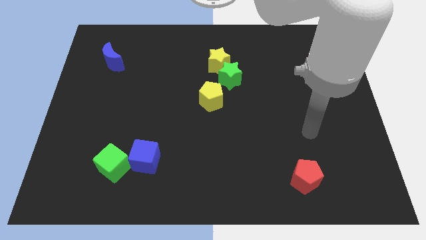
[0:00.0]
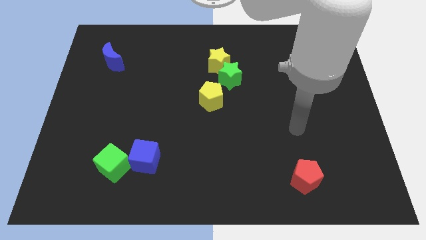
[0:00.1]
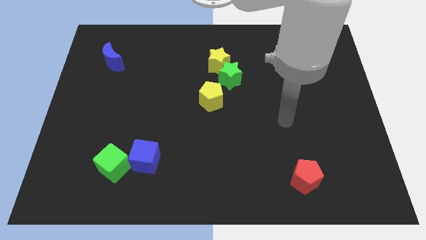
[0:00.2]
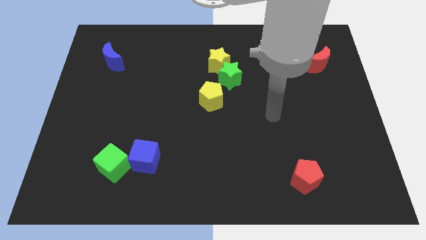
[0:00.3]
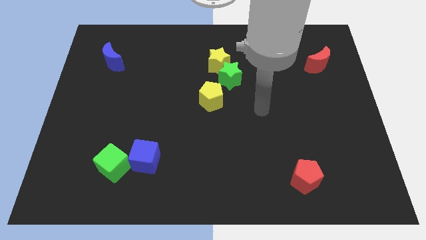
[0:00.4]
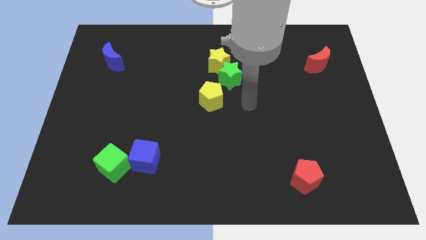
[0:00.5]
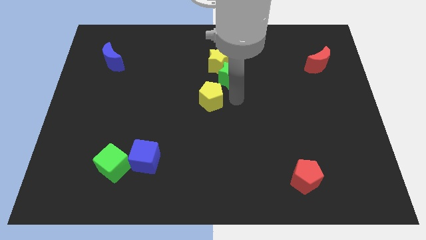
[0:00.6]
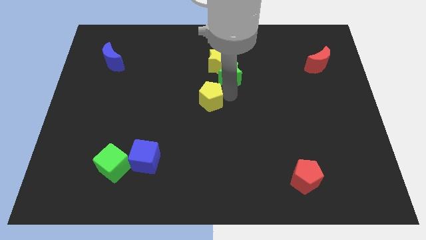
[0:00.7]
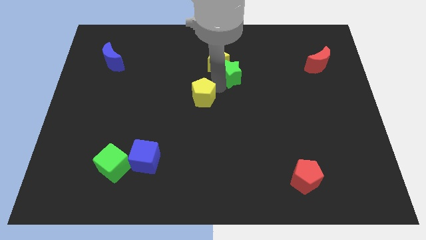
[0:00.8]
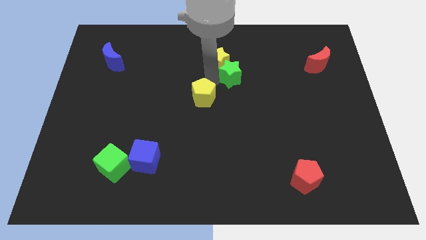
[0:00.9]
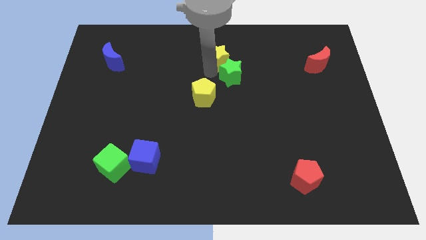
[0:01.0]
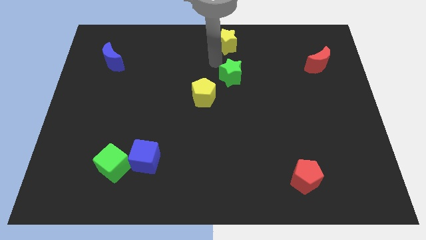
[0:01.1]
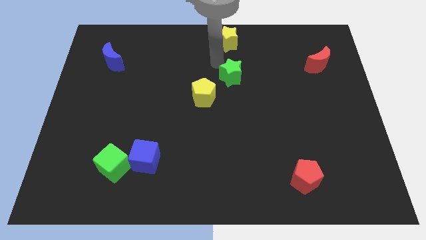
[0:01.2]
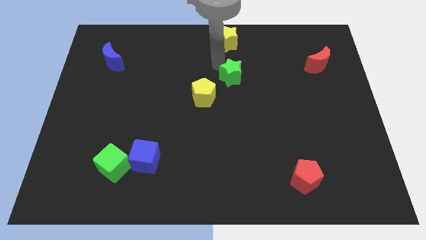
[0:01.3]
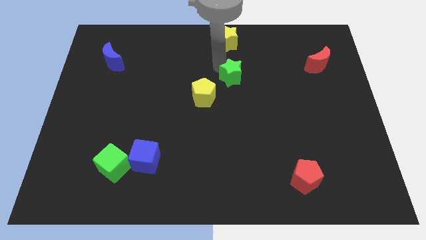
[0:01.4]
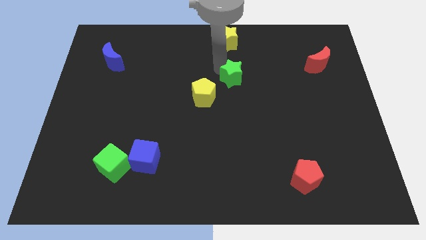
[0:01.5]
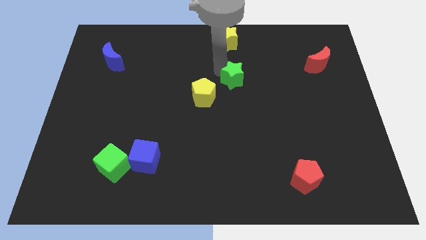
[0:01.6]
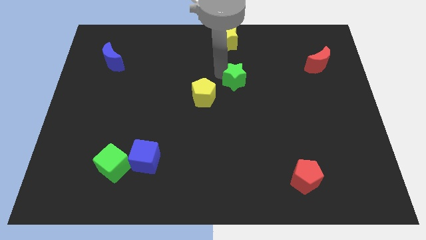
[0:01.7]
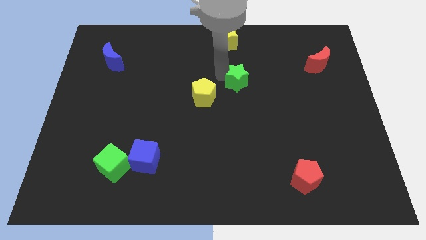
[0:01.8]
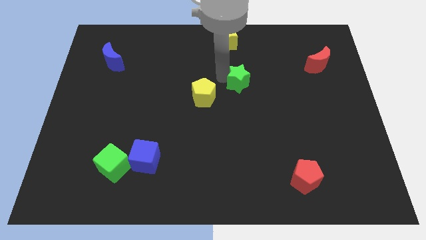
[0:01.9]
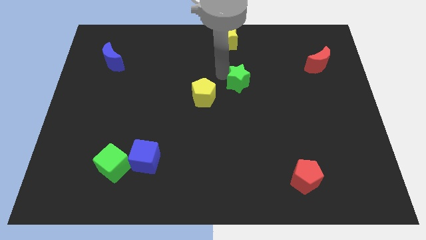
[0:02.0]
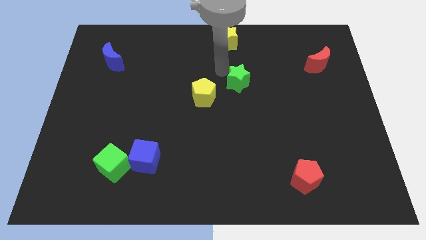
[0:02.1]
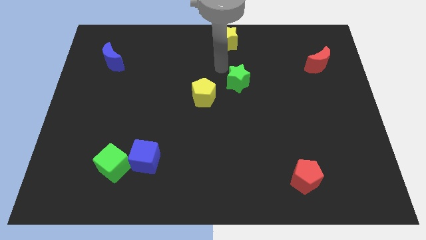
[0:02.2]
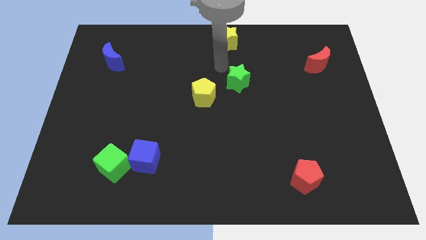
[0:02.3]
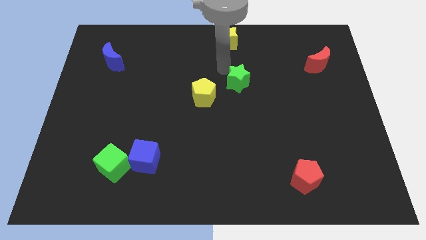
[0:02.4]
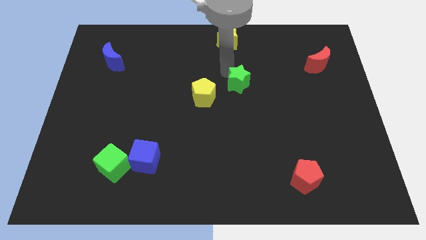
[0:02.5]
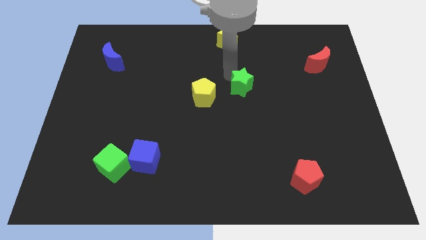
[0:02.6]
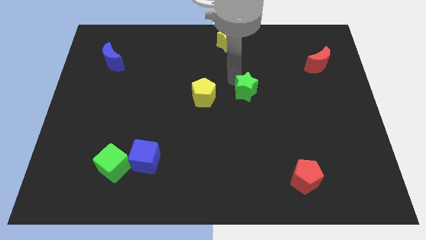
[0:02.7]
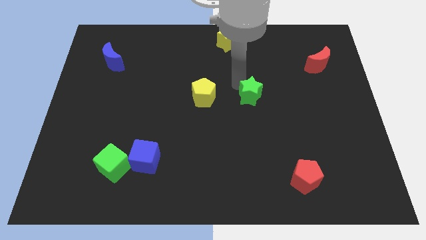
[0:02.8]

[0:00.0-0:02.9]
push the green star down and to the right diagonally slightly

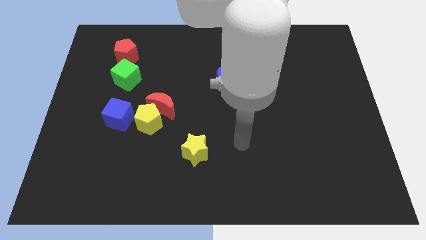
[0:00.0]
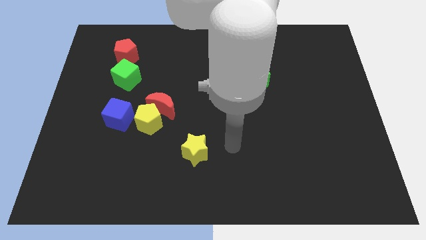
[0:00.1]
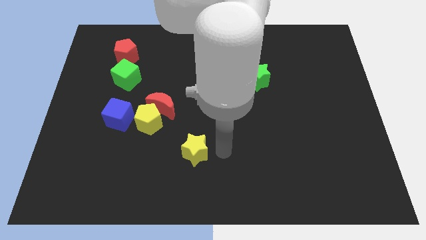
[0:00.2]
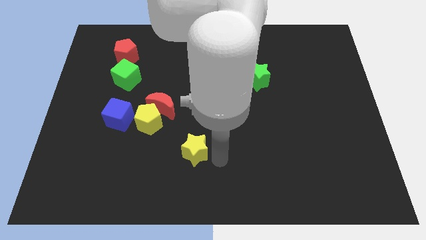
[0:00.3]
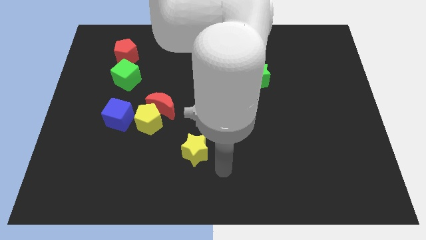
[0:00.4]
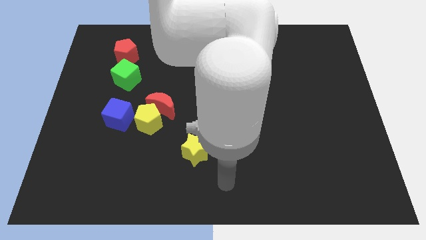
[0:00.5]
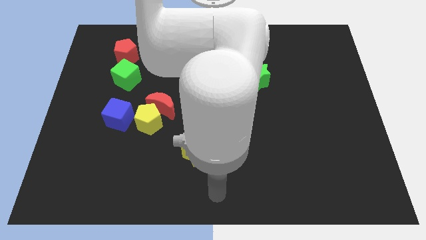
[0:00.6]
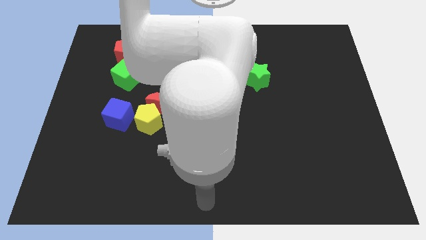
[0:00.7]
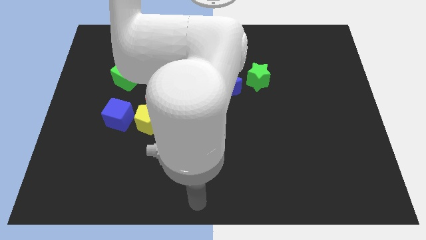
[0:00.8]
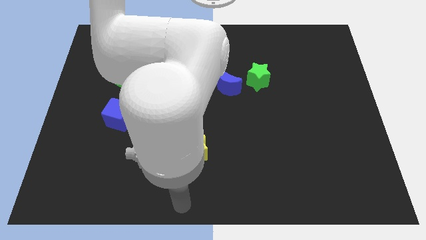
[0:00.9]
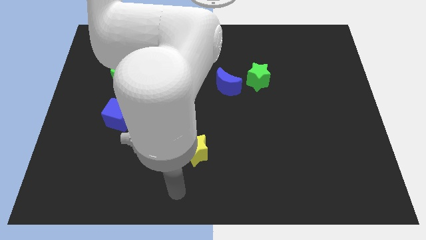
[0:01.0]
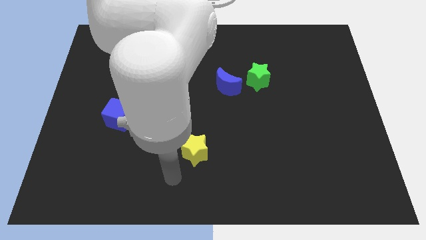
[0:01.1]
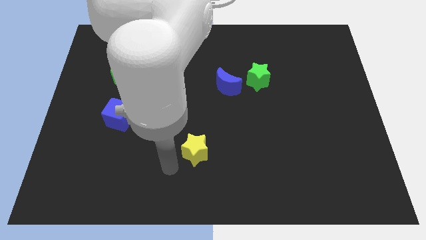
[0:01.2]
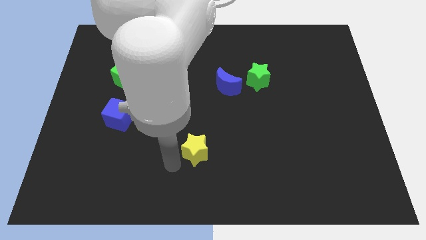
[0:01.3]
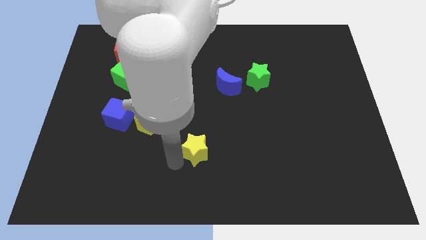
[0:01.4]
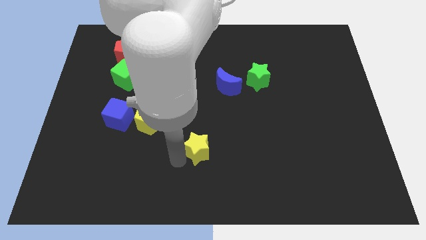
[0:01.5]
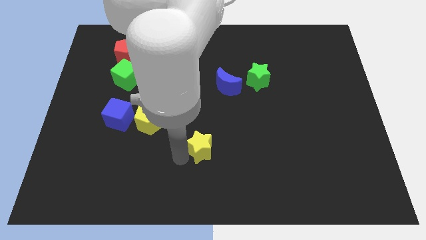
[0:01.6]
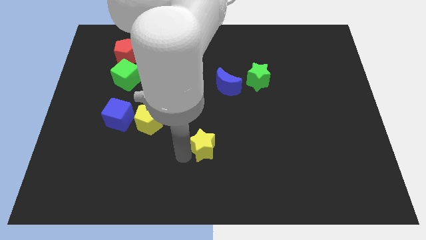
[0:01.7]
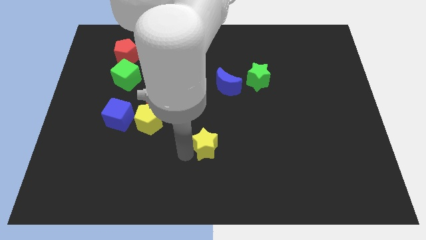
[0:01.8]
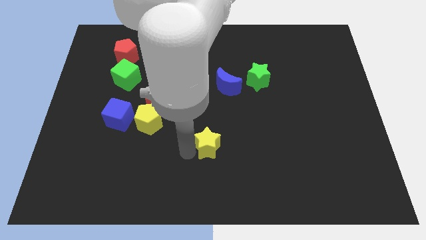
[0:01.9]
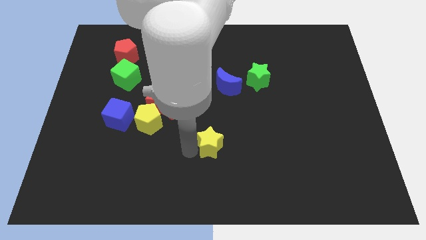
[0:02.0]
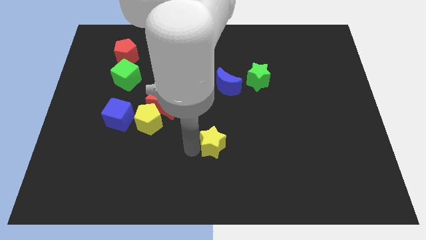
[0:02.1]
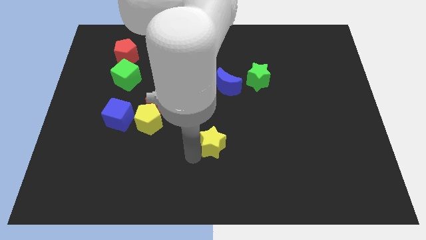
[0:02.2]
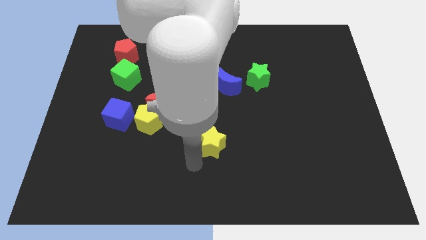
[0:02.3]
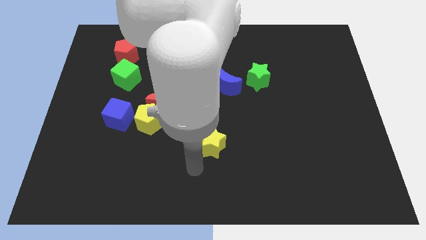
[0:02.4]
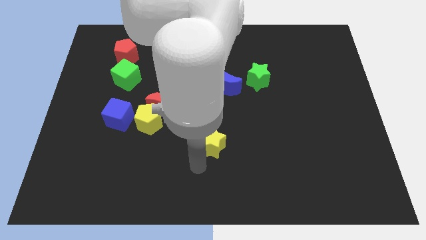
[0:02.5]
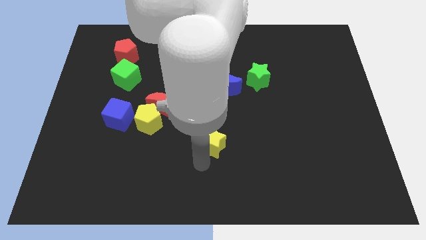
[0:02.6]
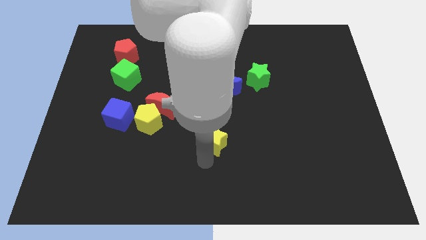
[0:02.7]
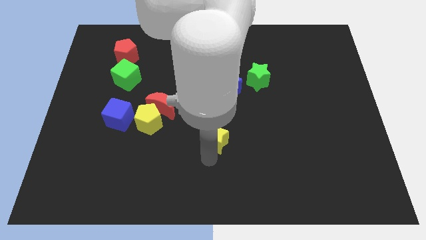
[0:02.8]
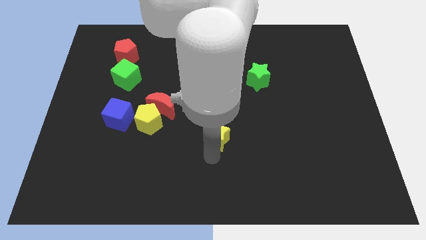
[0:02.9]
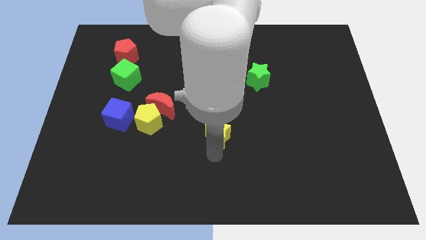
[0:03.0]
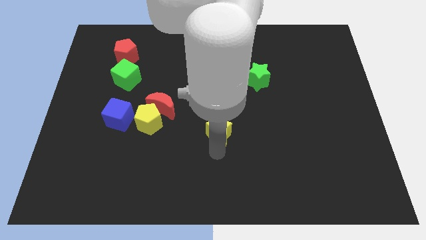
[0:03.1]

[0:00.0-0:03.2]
slide the yellow star slightly upwards and right

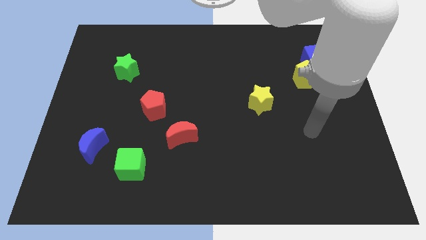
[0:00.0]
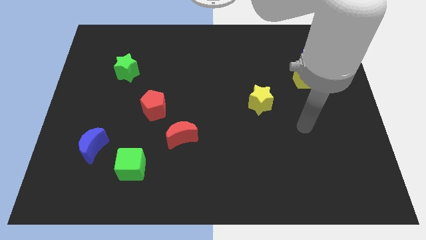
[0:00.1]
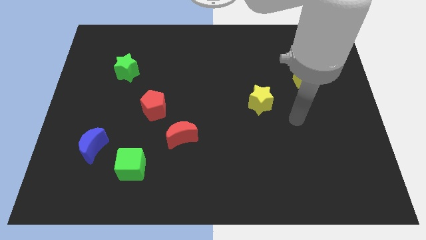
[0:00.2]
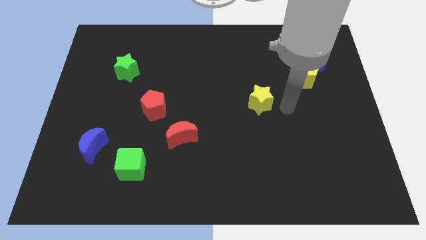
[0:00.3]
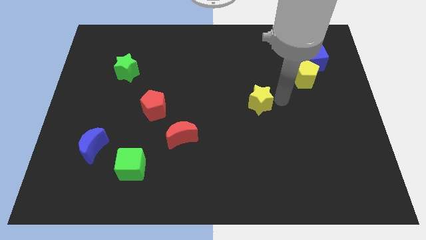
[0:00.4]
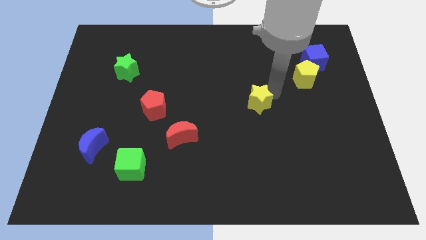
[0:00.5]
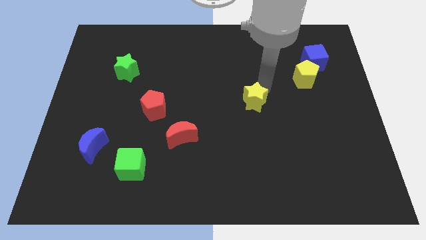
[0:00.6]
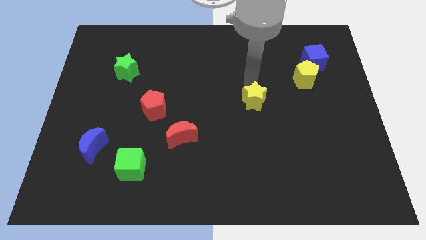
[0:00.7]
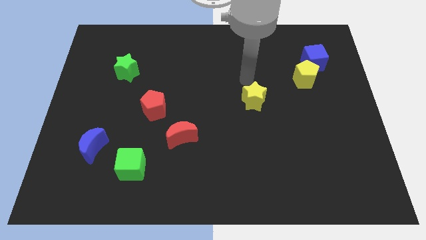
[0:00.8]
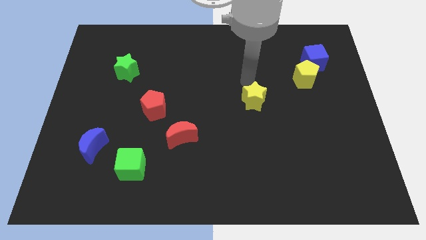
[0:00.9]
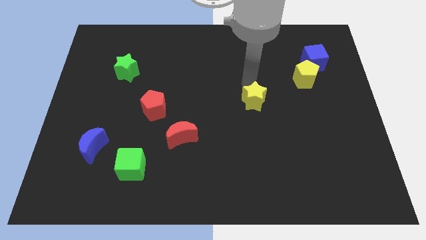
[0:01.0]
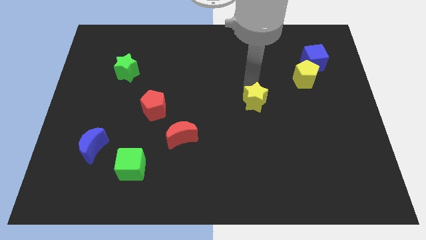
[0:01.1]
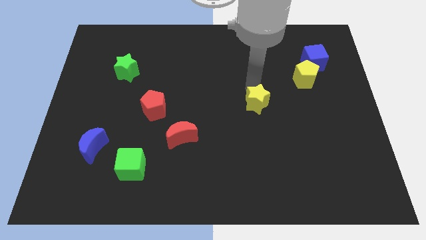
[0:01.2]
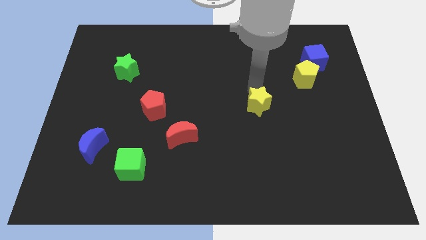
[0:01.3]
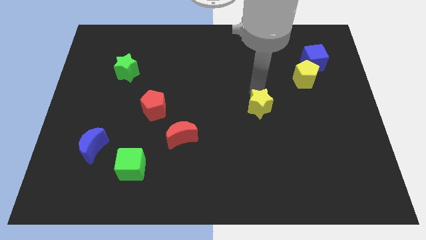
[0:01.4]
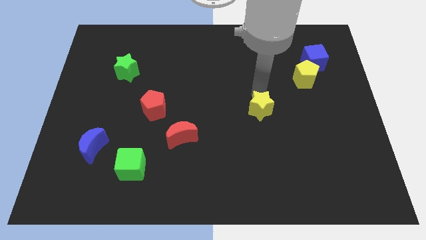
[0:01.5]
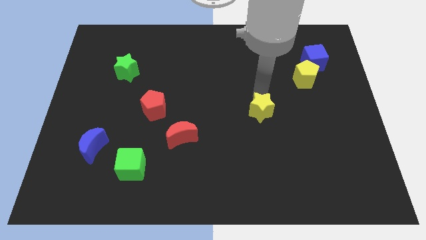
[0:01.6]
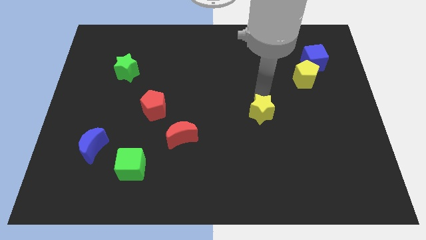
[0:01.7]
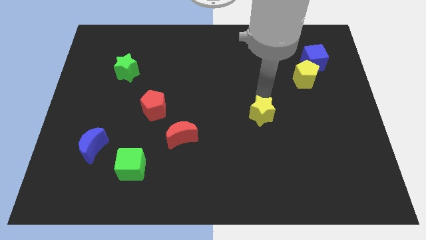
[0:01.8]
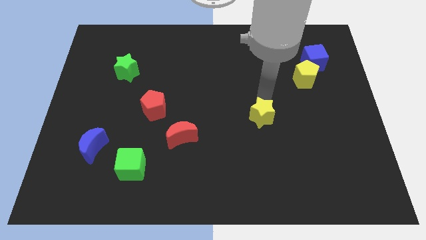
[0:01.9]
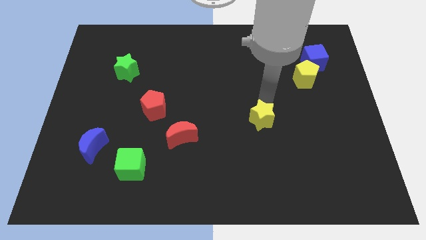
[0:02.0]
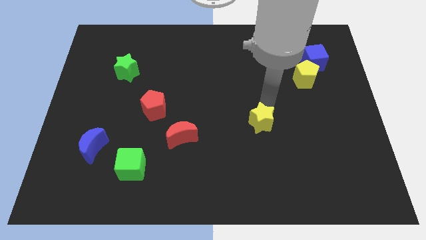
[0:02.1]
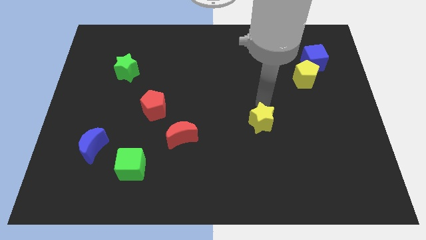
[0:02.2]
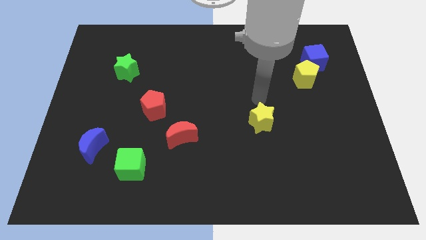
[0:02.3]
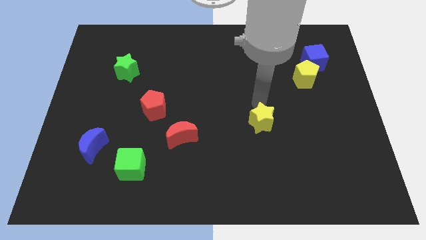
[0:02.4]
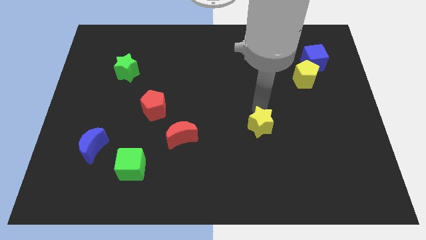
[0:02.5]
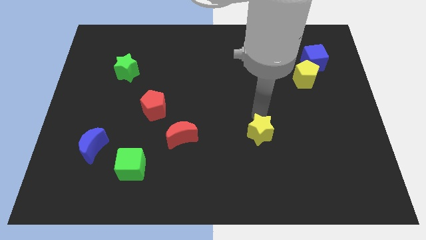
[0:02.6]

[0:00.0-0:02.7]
push the yellow star a bit downwards
